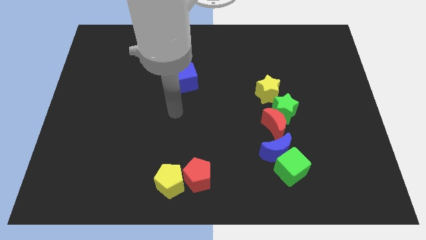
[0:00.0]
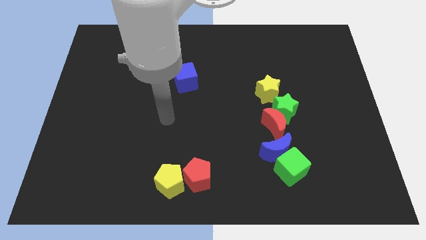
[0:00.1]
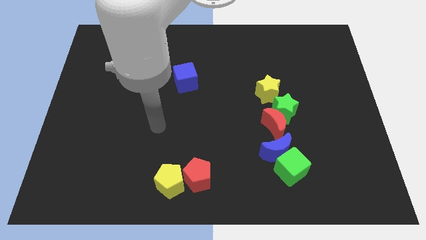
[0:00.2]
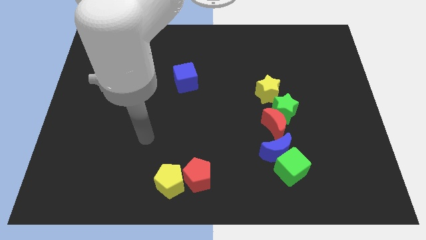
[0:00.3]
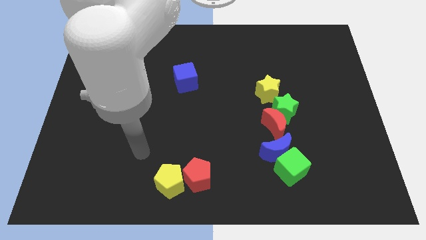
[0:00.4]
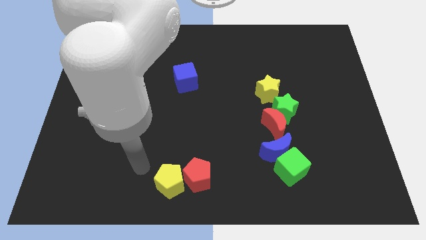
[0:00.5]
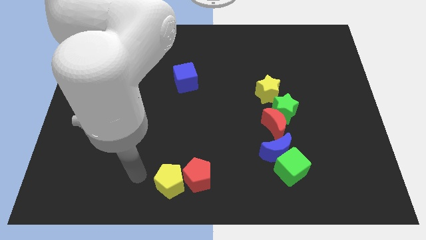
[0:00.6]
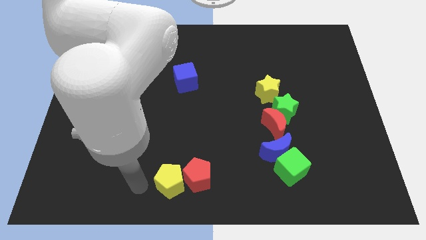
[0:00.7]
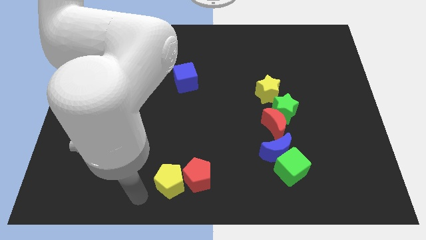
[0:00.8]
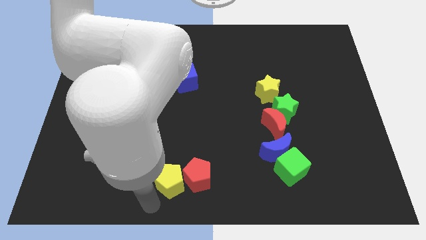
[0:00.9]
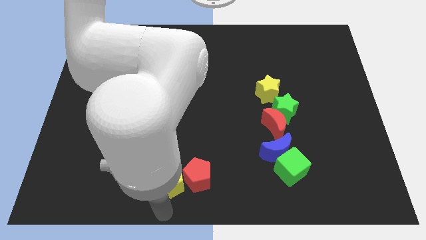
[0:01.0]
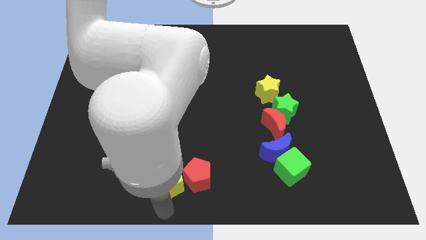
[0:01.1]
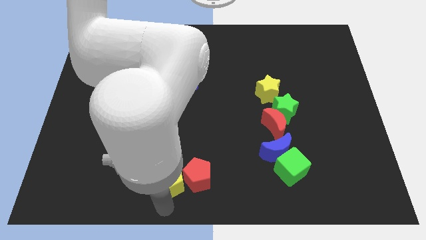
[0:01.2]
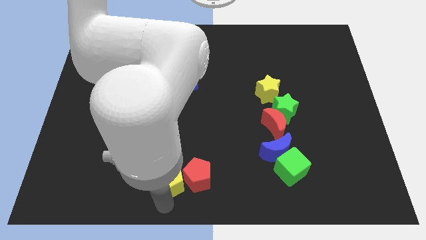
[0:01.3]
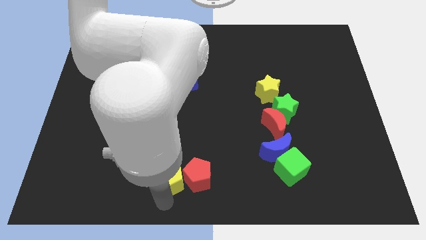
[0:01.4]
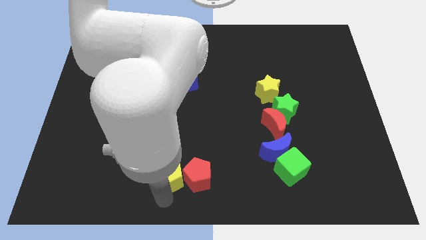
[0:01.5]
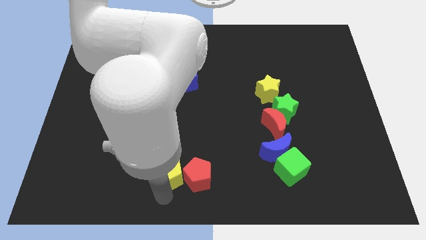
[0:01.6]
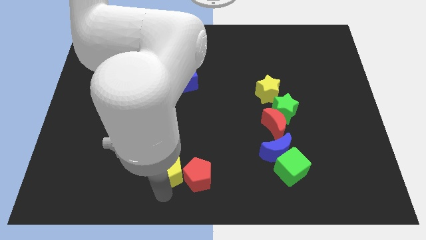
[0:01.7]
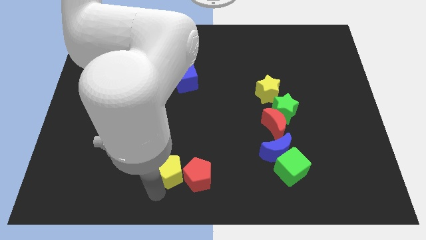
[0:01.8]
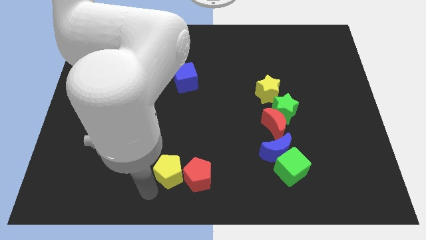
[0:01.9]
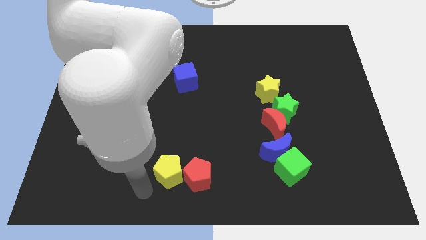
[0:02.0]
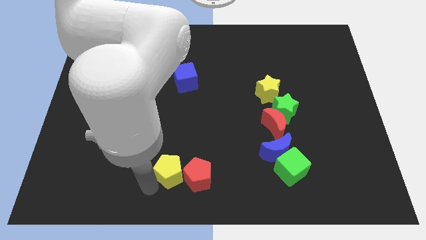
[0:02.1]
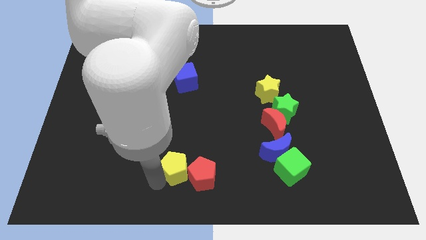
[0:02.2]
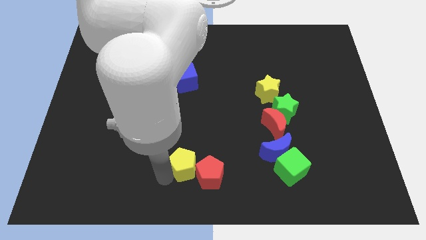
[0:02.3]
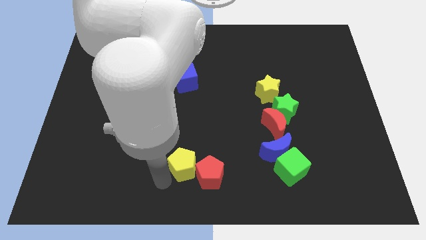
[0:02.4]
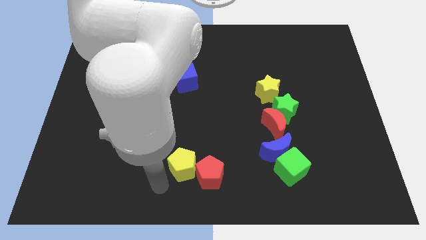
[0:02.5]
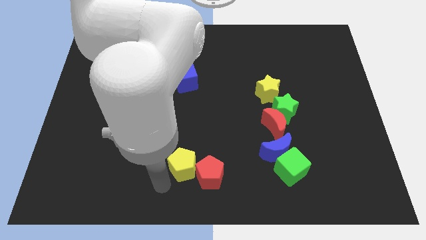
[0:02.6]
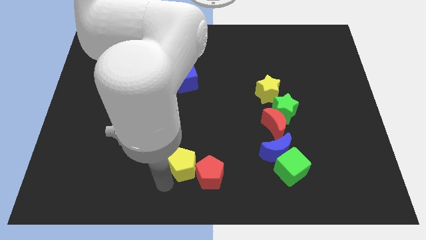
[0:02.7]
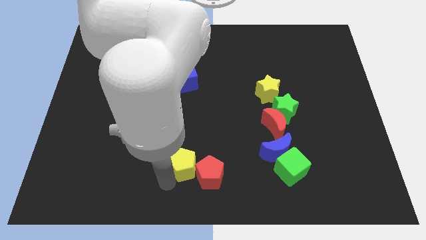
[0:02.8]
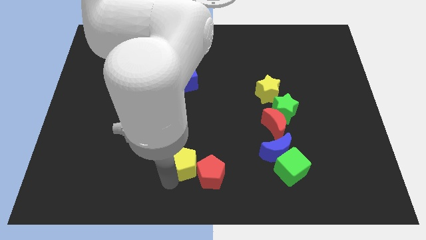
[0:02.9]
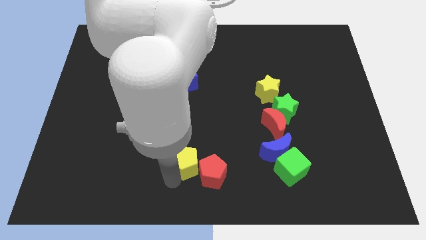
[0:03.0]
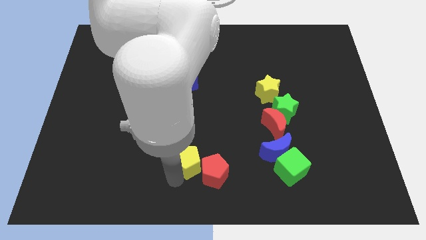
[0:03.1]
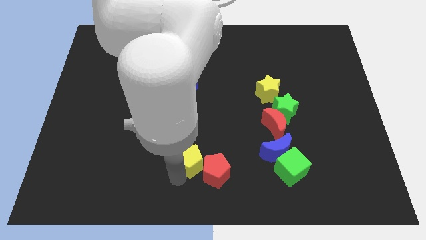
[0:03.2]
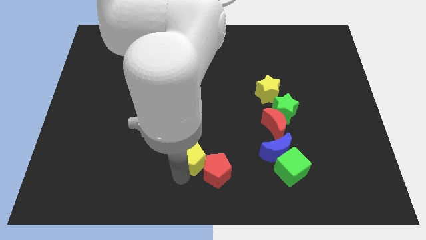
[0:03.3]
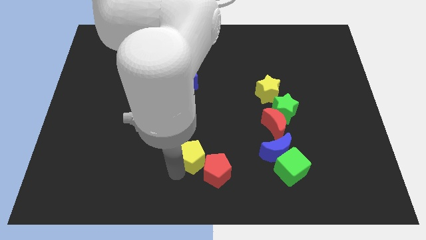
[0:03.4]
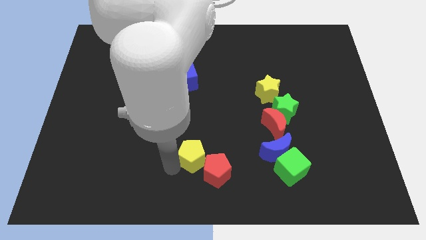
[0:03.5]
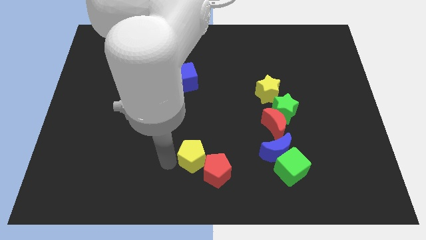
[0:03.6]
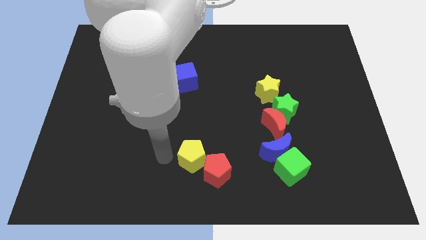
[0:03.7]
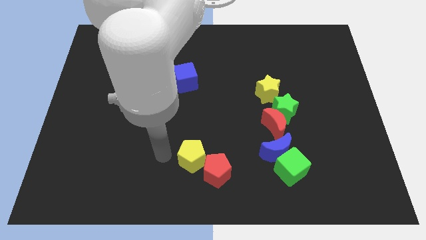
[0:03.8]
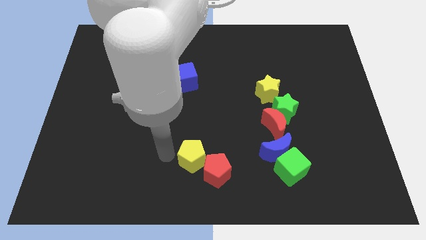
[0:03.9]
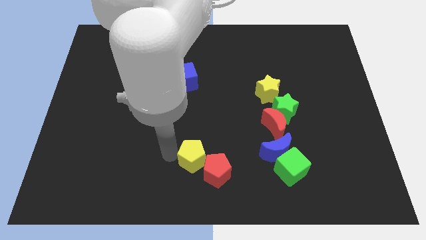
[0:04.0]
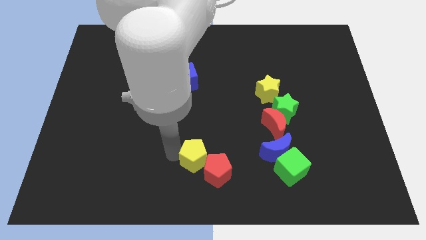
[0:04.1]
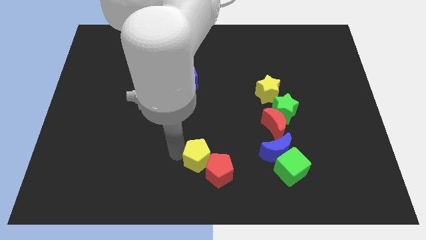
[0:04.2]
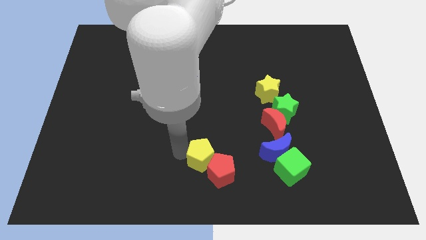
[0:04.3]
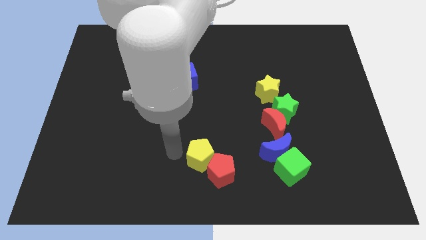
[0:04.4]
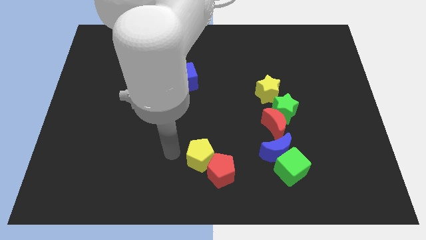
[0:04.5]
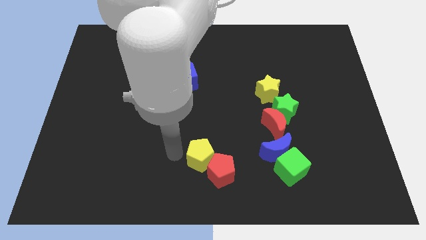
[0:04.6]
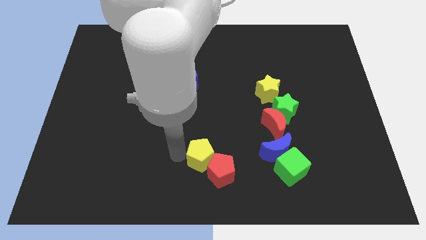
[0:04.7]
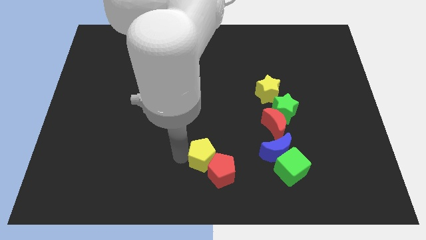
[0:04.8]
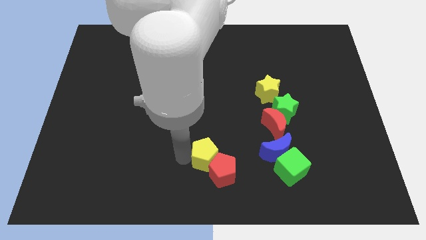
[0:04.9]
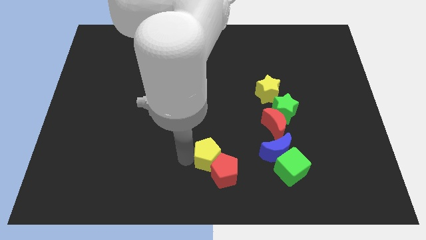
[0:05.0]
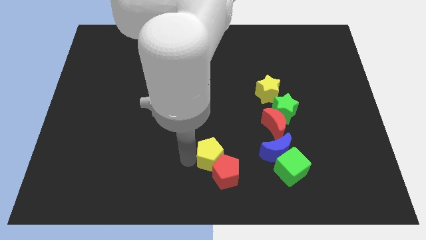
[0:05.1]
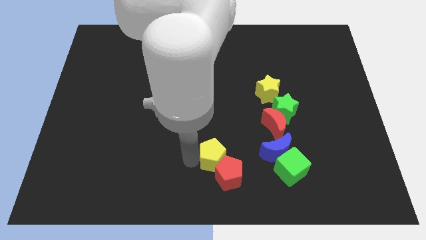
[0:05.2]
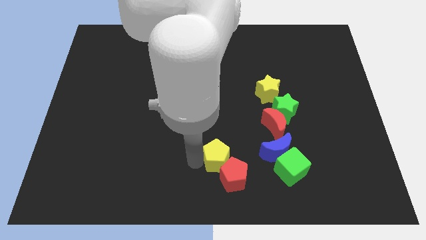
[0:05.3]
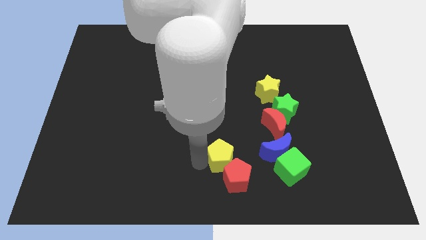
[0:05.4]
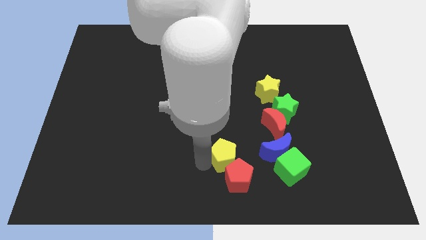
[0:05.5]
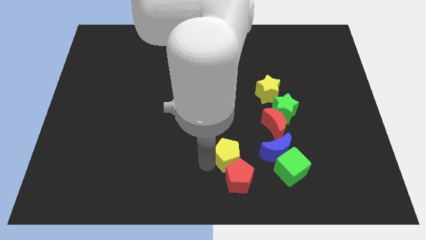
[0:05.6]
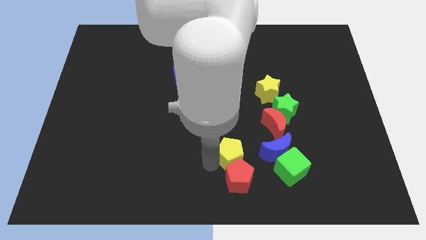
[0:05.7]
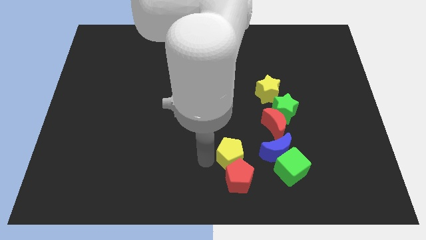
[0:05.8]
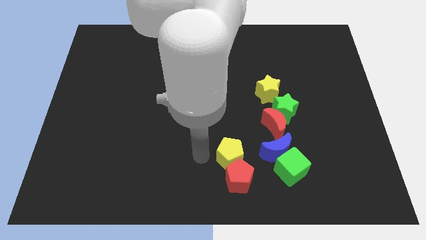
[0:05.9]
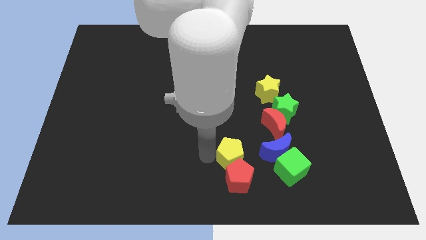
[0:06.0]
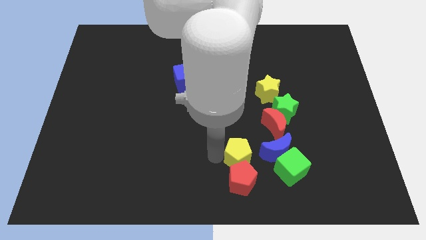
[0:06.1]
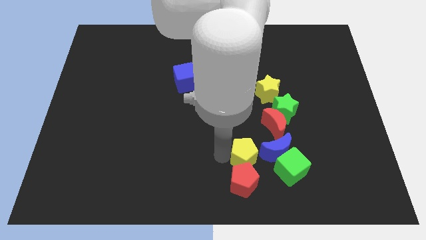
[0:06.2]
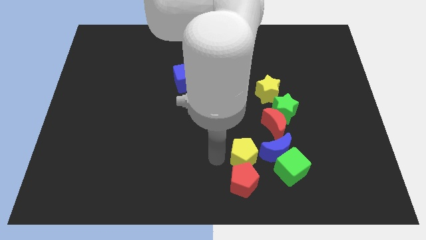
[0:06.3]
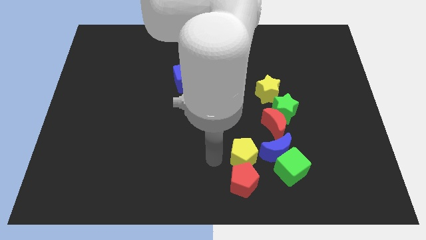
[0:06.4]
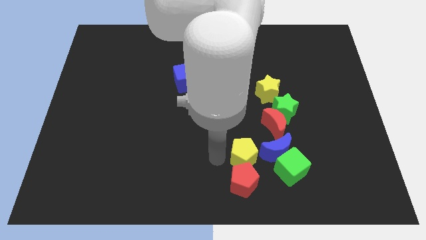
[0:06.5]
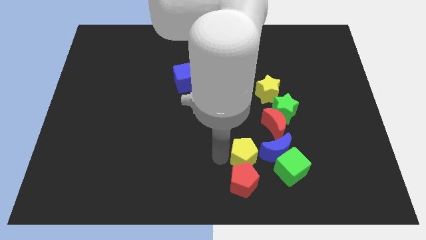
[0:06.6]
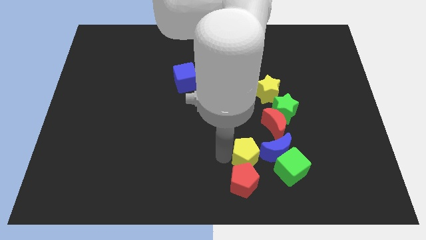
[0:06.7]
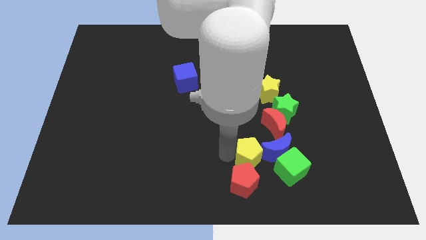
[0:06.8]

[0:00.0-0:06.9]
slide the yellow pentagon close to the blue moon
